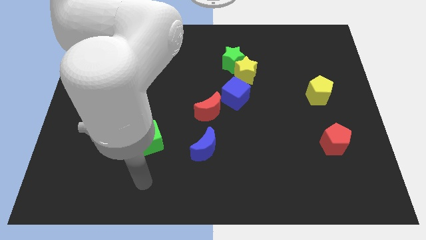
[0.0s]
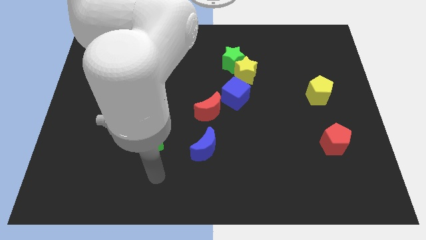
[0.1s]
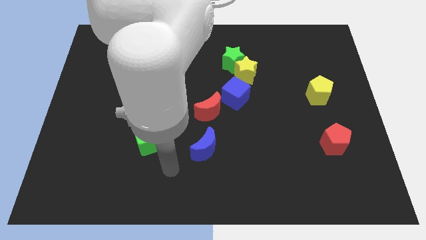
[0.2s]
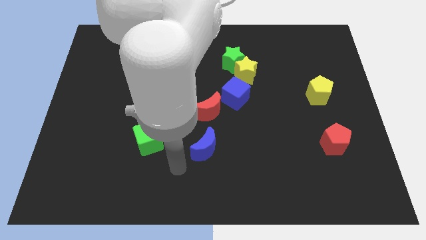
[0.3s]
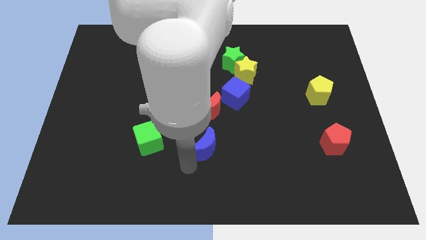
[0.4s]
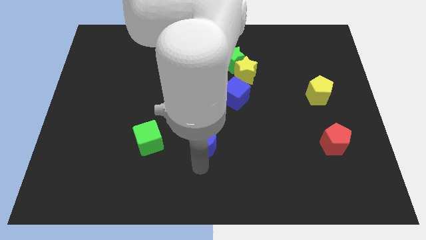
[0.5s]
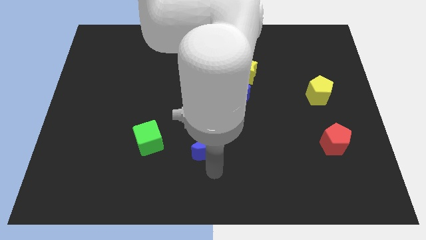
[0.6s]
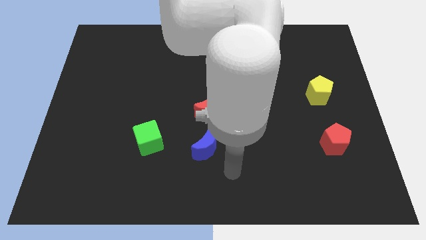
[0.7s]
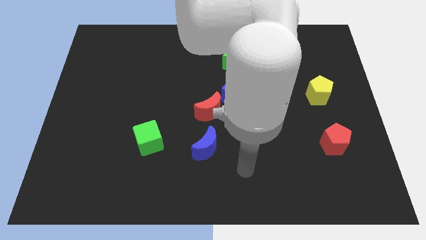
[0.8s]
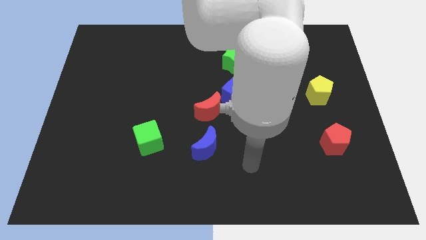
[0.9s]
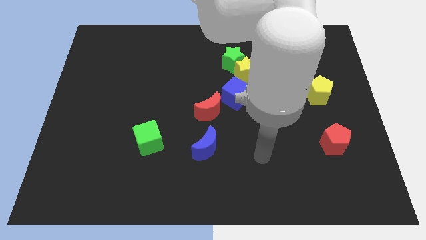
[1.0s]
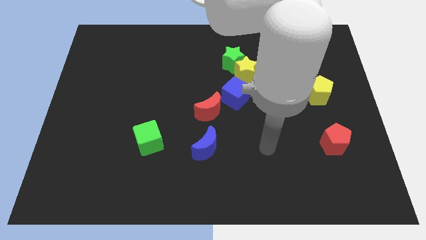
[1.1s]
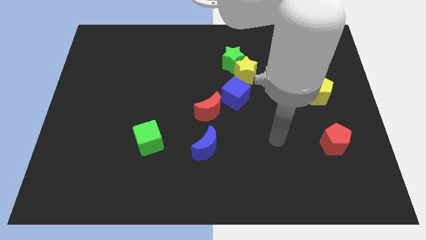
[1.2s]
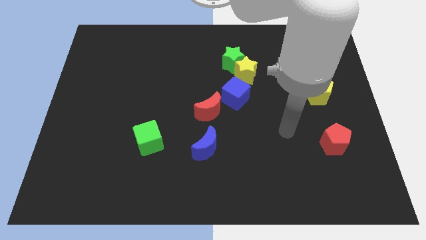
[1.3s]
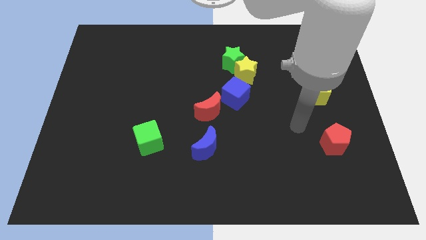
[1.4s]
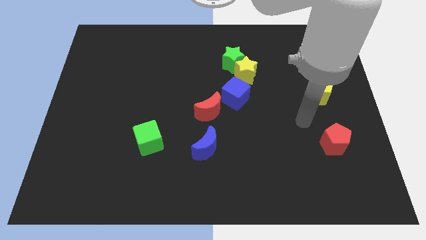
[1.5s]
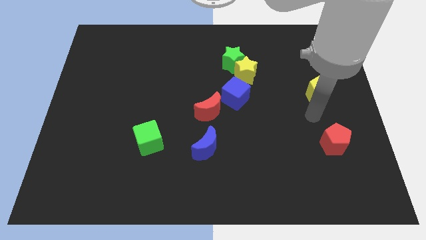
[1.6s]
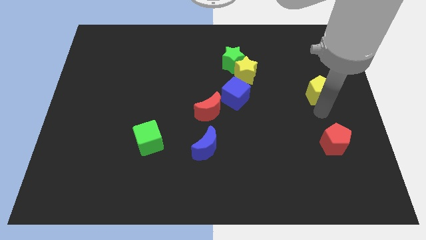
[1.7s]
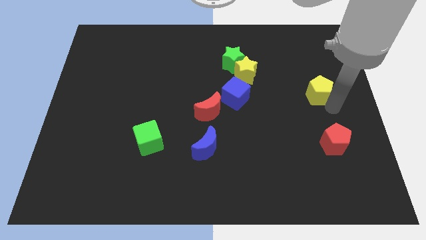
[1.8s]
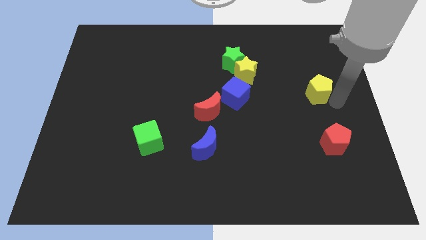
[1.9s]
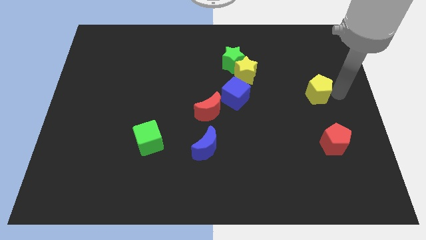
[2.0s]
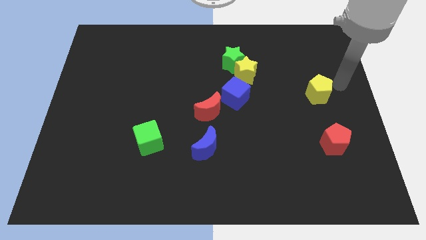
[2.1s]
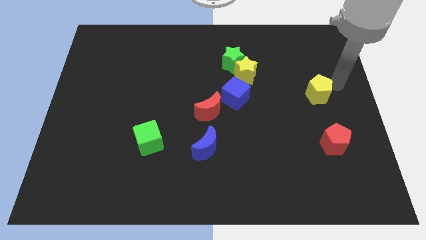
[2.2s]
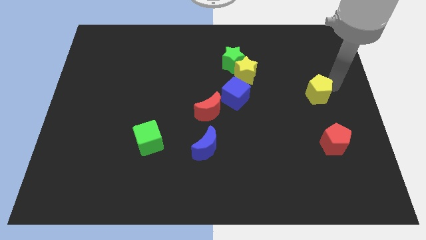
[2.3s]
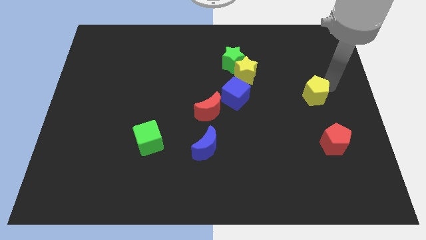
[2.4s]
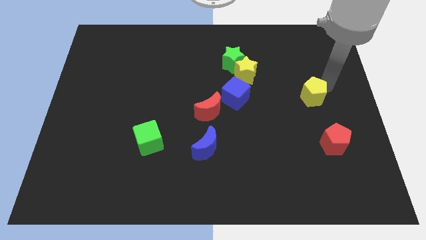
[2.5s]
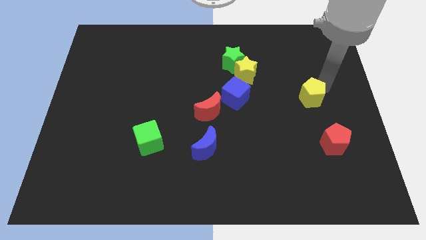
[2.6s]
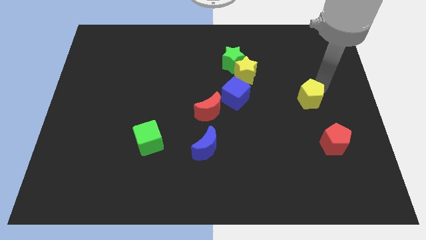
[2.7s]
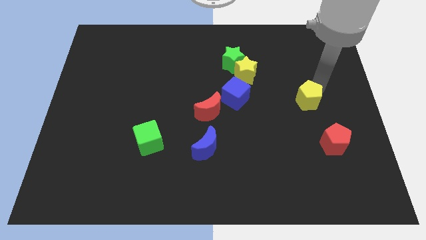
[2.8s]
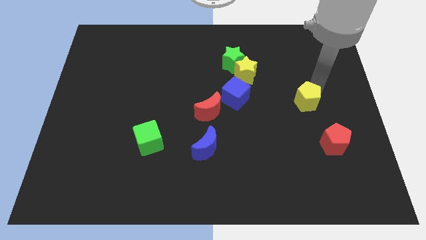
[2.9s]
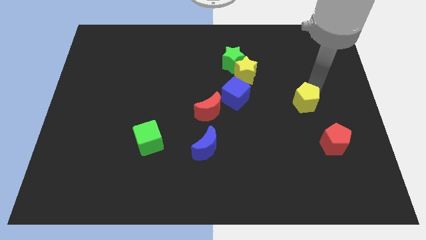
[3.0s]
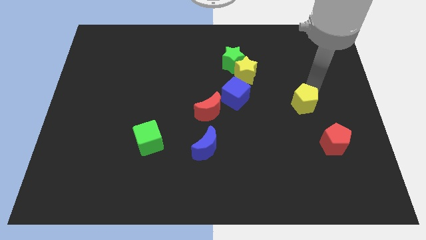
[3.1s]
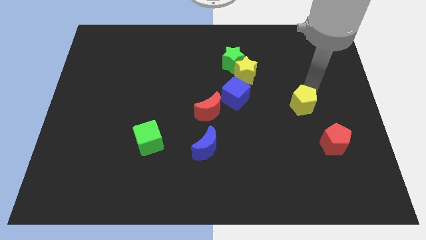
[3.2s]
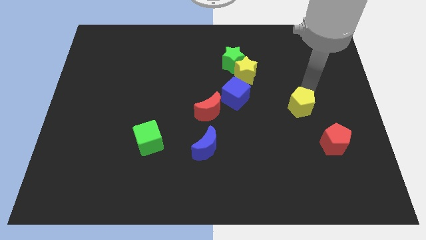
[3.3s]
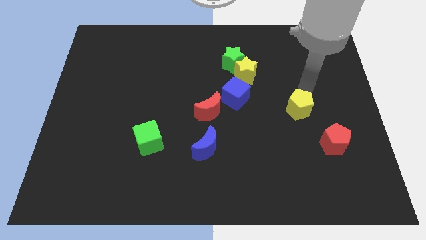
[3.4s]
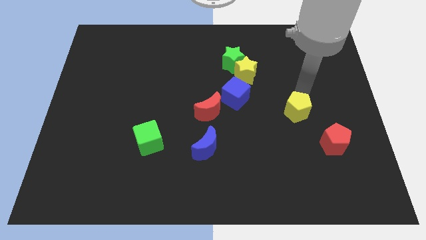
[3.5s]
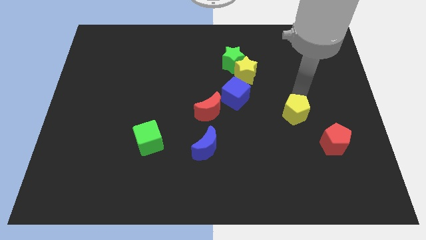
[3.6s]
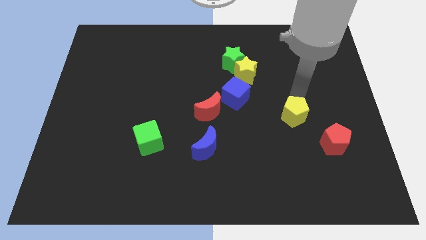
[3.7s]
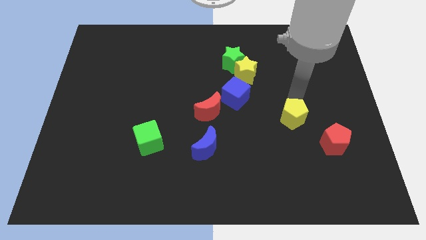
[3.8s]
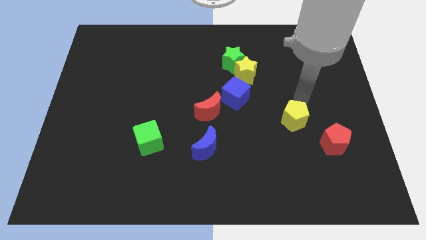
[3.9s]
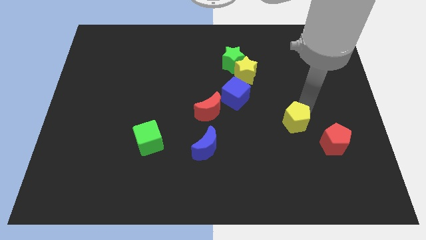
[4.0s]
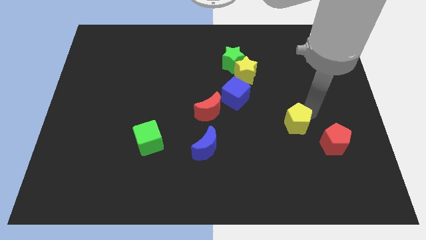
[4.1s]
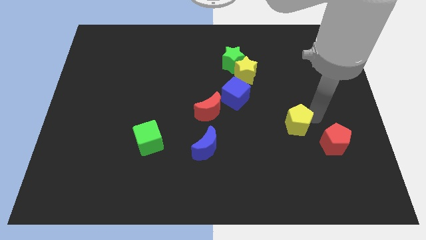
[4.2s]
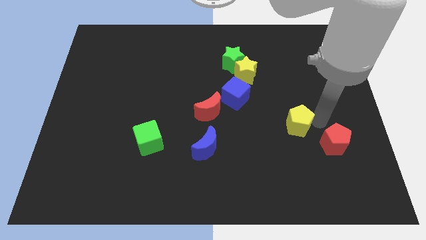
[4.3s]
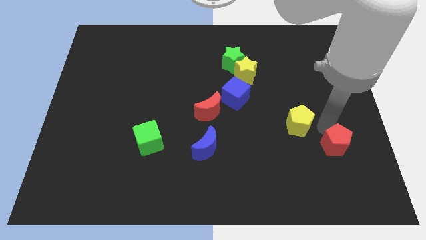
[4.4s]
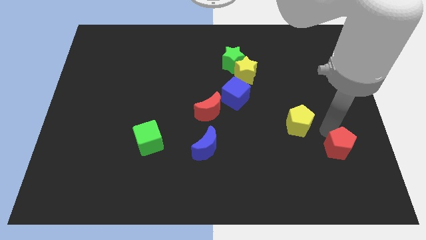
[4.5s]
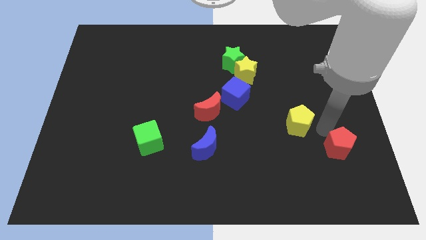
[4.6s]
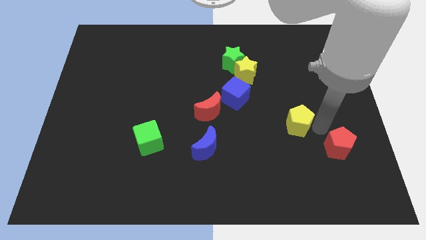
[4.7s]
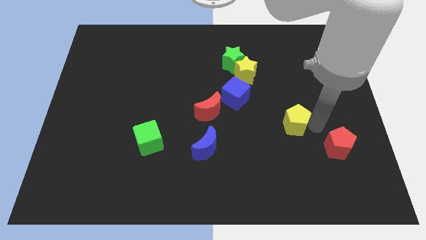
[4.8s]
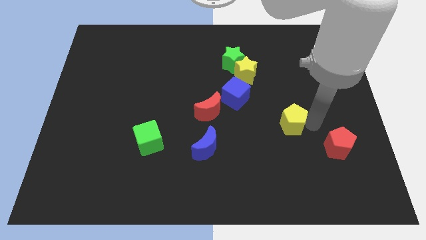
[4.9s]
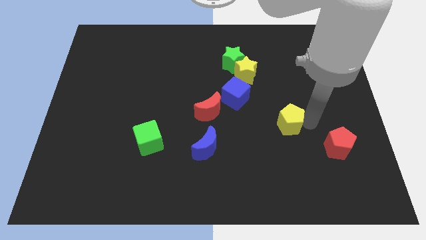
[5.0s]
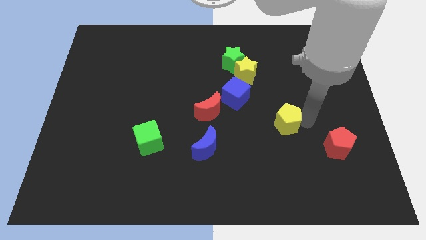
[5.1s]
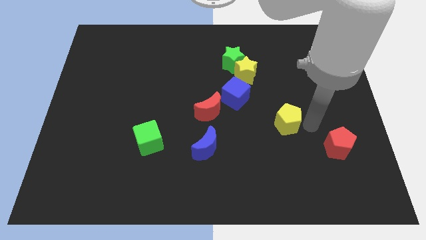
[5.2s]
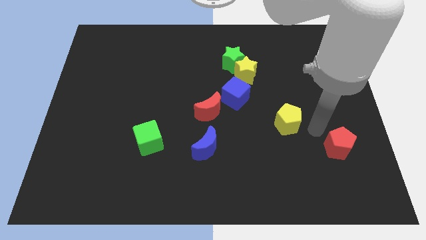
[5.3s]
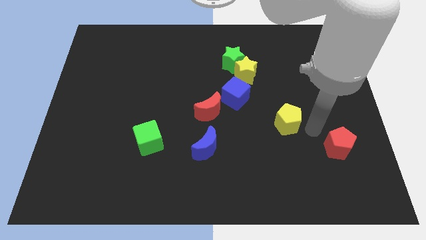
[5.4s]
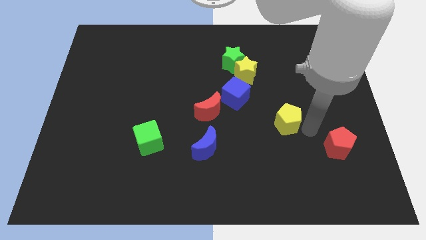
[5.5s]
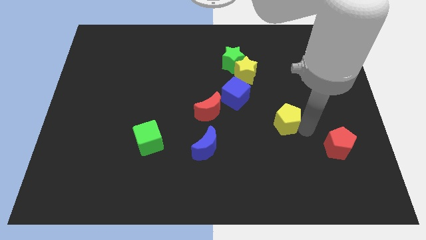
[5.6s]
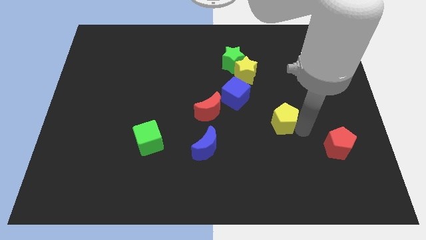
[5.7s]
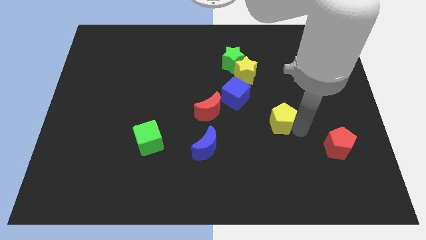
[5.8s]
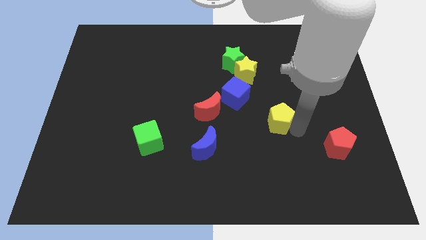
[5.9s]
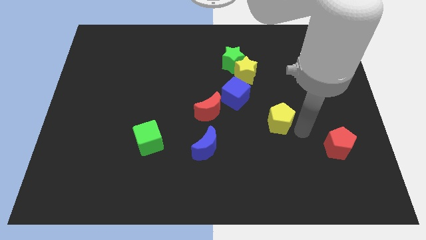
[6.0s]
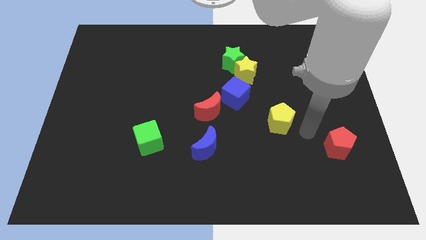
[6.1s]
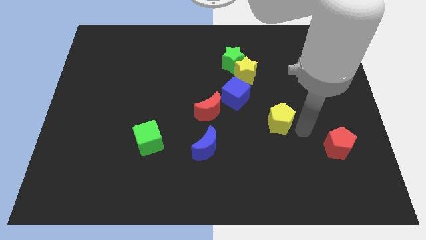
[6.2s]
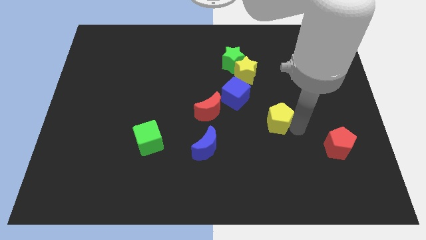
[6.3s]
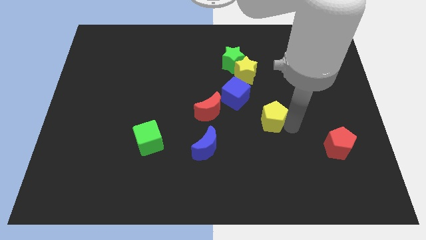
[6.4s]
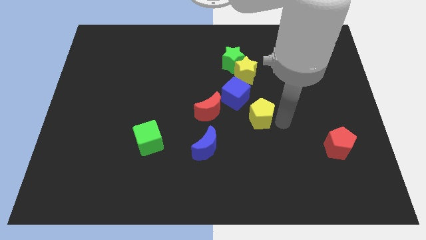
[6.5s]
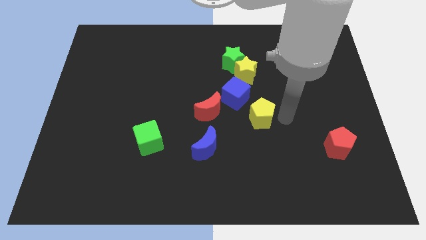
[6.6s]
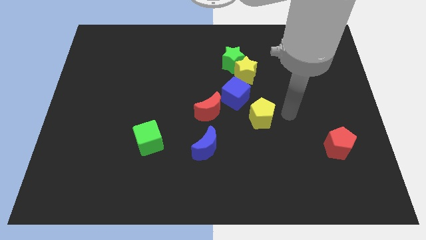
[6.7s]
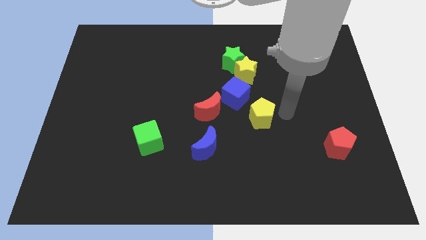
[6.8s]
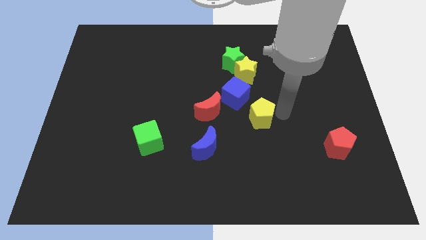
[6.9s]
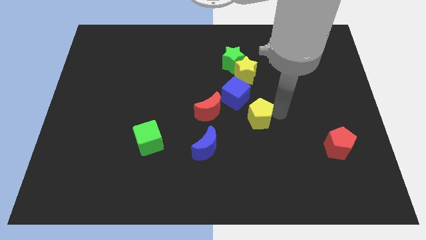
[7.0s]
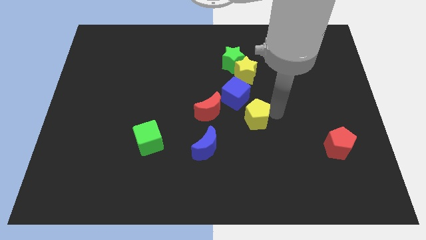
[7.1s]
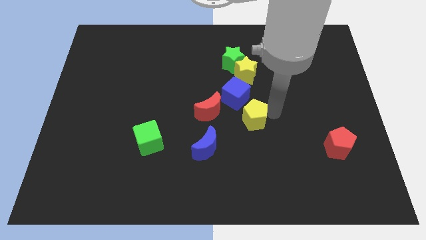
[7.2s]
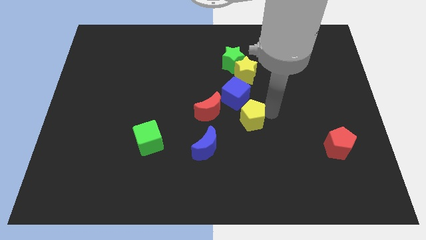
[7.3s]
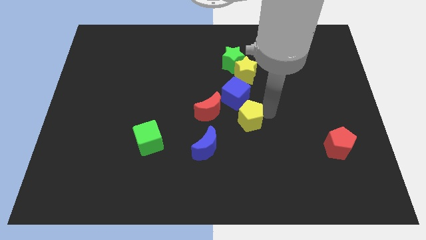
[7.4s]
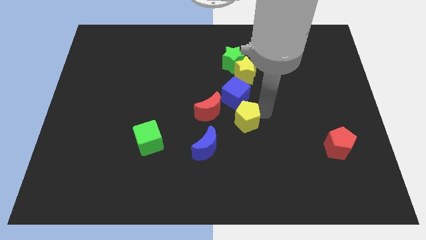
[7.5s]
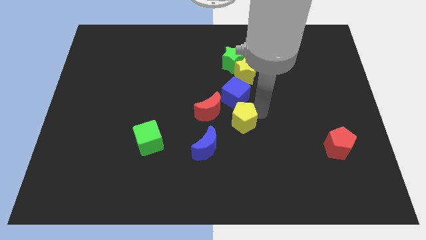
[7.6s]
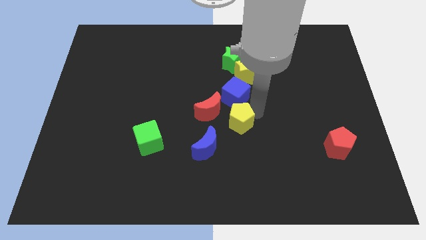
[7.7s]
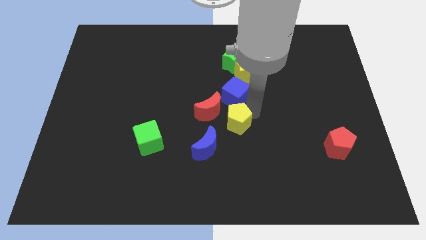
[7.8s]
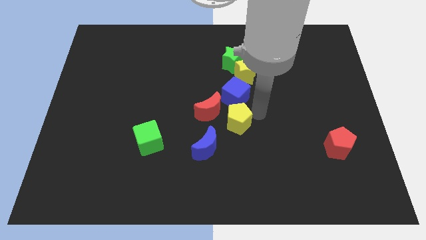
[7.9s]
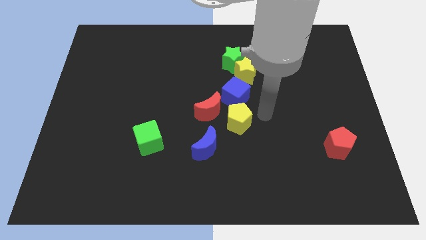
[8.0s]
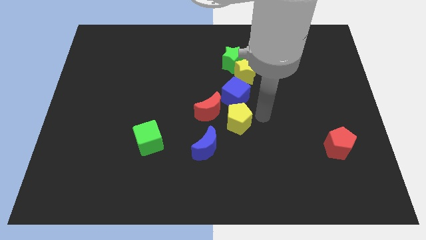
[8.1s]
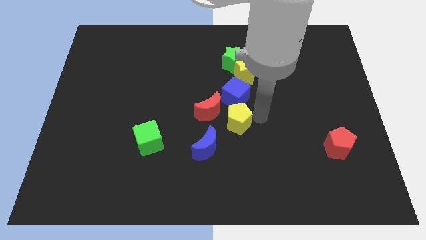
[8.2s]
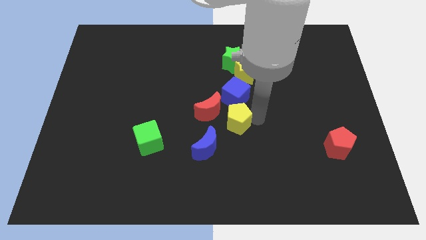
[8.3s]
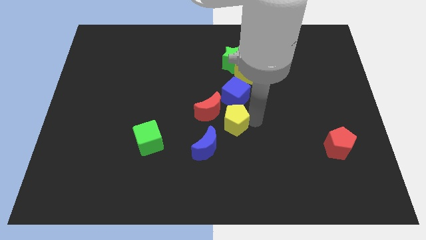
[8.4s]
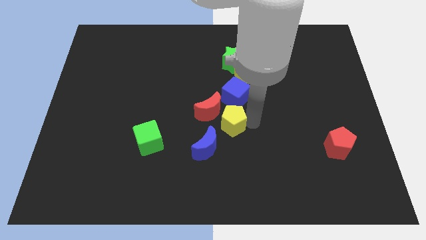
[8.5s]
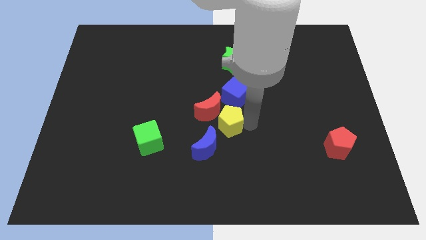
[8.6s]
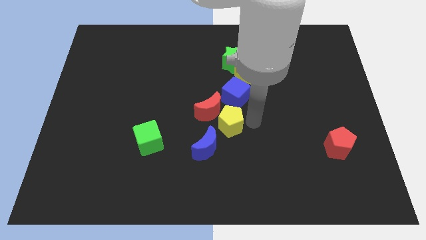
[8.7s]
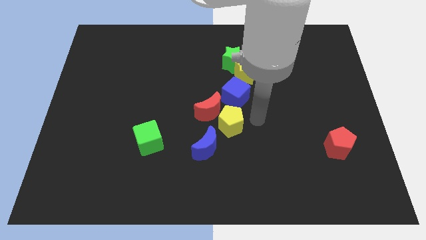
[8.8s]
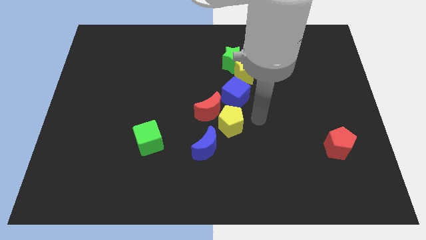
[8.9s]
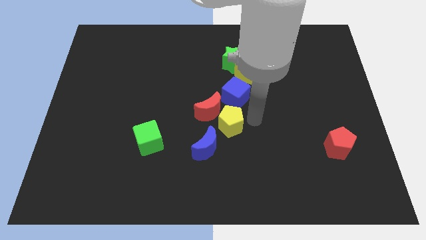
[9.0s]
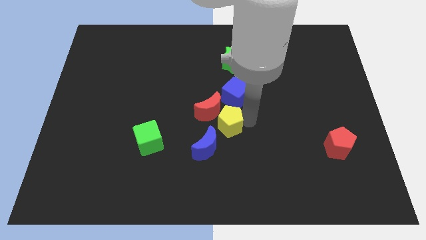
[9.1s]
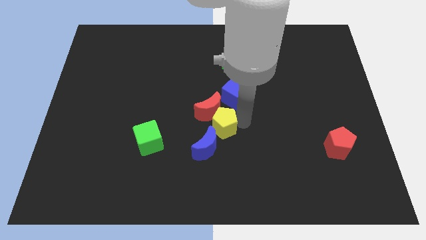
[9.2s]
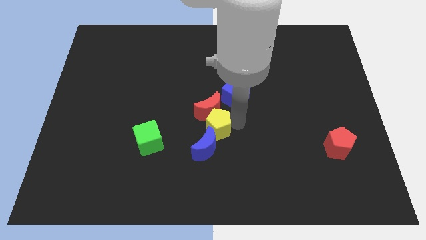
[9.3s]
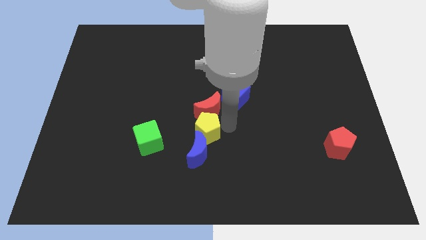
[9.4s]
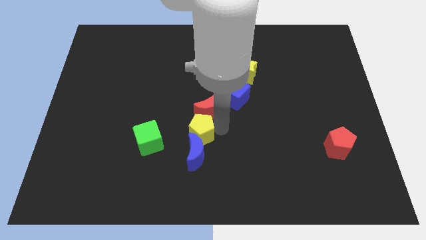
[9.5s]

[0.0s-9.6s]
put the yellow pentagon to the top left side of the blue moon
